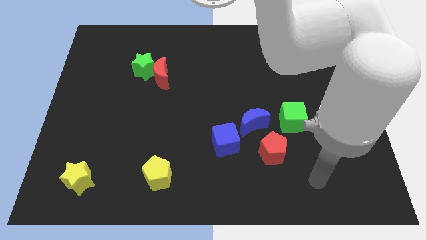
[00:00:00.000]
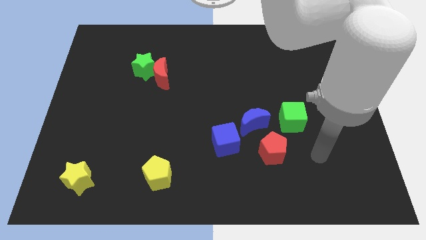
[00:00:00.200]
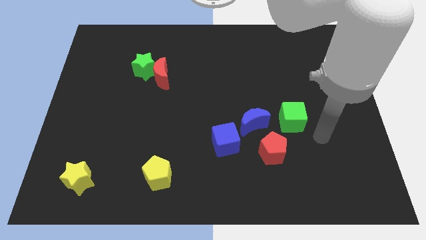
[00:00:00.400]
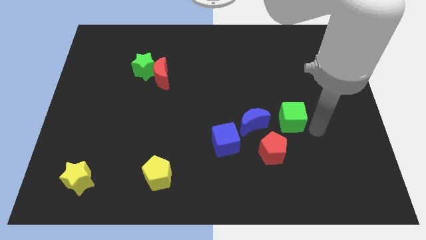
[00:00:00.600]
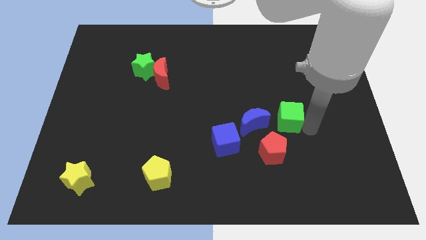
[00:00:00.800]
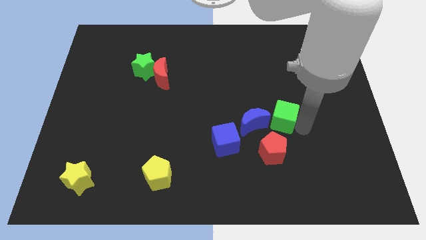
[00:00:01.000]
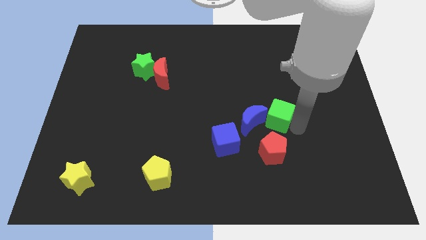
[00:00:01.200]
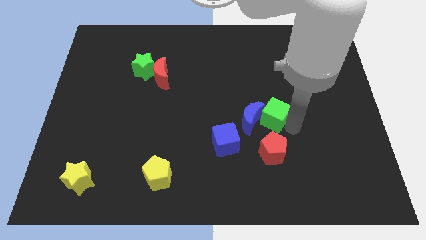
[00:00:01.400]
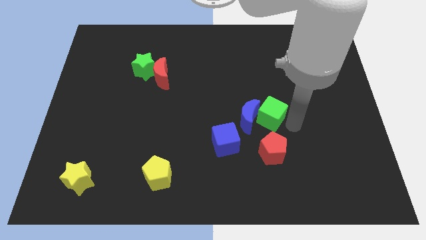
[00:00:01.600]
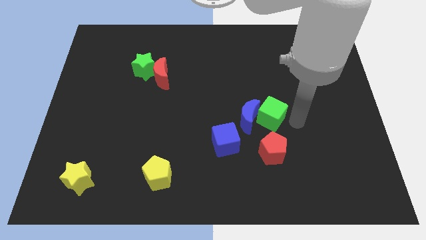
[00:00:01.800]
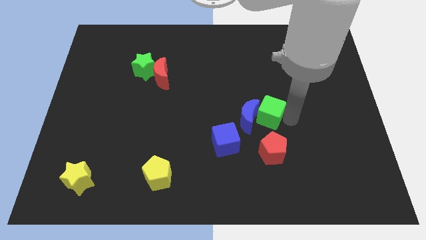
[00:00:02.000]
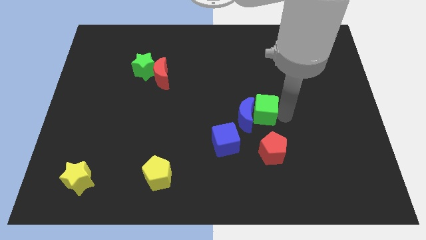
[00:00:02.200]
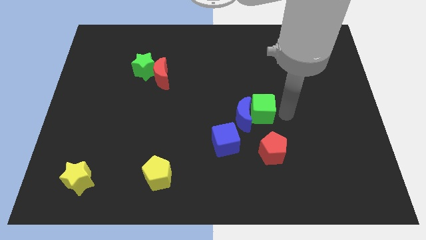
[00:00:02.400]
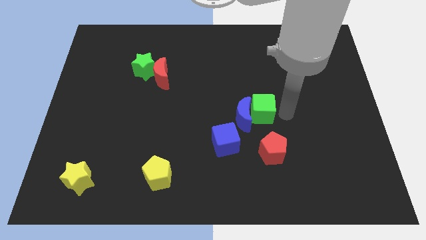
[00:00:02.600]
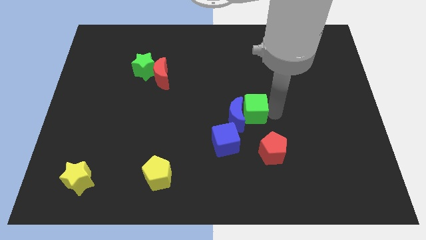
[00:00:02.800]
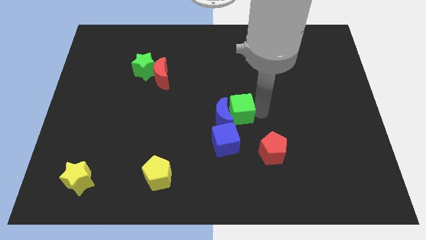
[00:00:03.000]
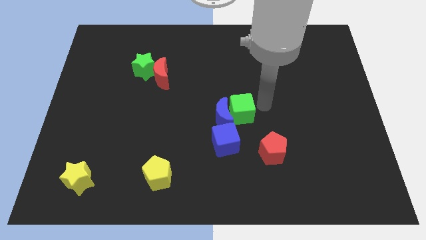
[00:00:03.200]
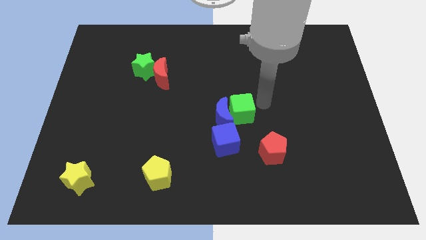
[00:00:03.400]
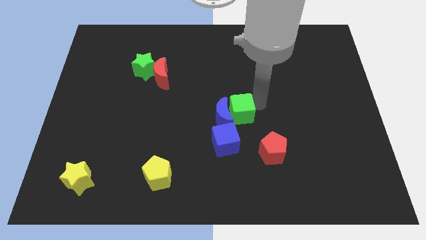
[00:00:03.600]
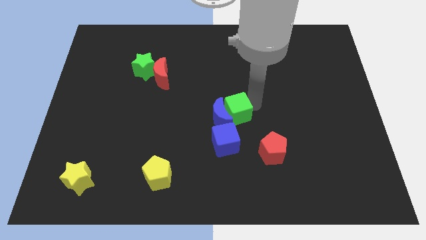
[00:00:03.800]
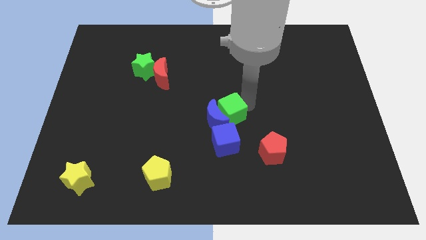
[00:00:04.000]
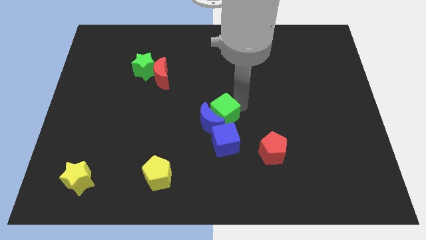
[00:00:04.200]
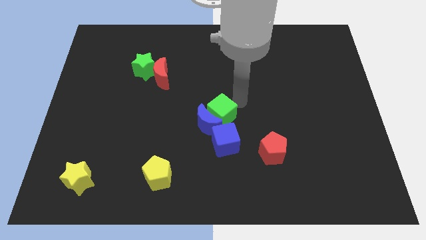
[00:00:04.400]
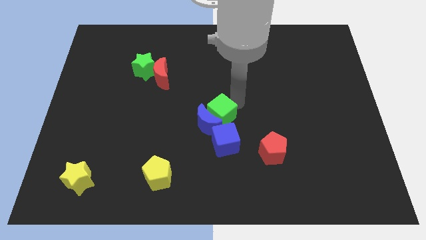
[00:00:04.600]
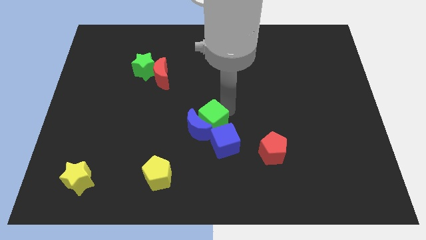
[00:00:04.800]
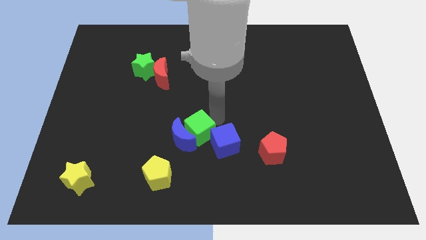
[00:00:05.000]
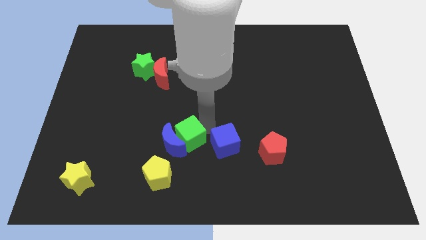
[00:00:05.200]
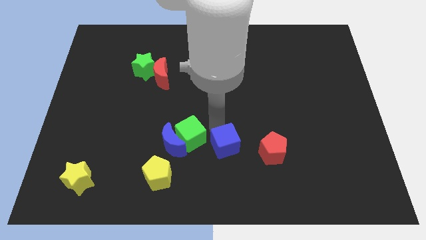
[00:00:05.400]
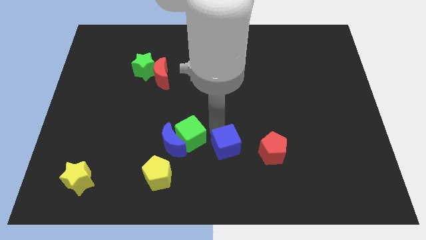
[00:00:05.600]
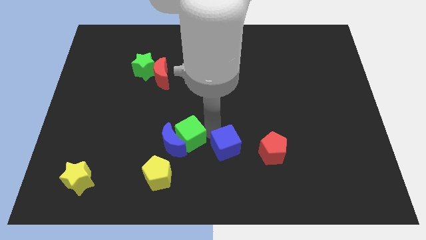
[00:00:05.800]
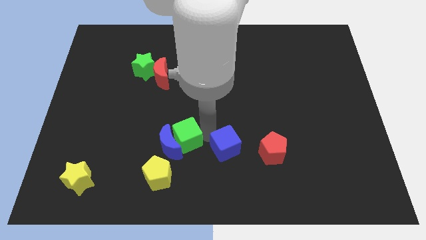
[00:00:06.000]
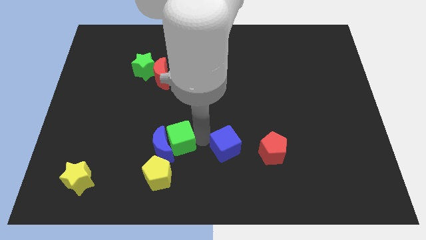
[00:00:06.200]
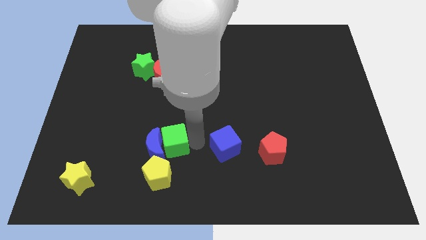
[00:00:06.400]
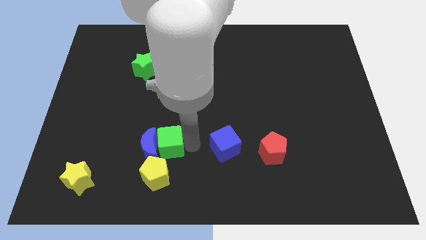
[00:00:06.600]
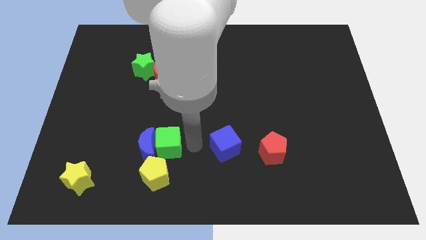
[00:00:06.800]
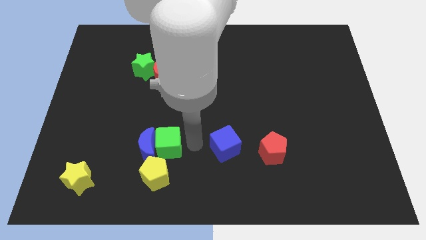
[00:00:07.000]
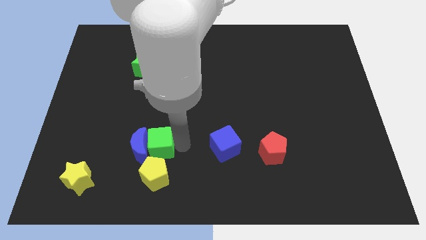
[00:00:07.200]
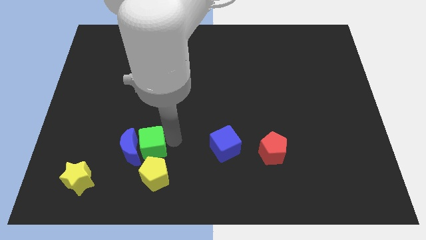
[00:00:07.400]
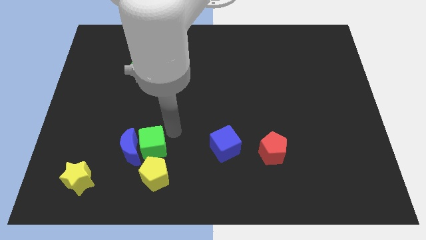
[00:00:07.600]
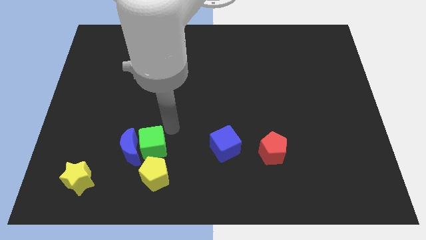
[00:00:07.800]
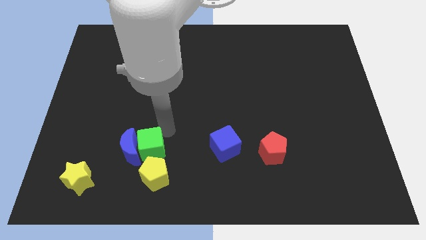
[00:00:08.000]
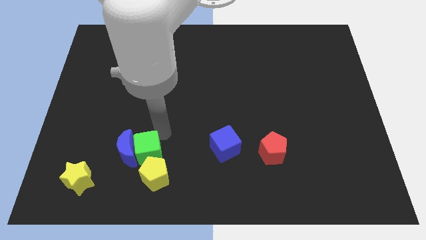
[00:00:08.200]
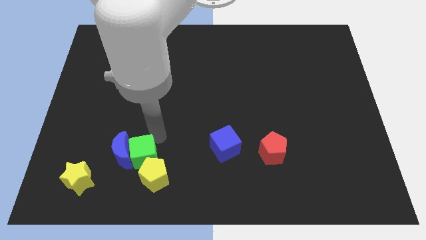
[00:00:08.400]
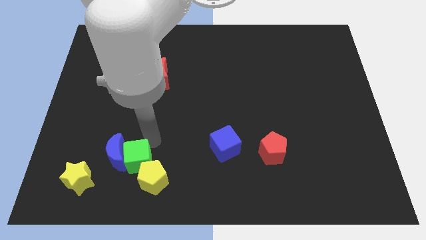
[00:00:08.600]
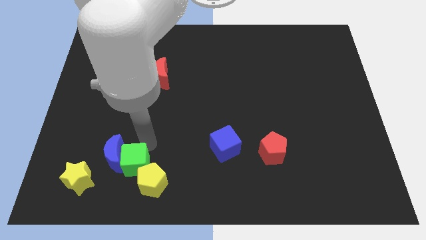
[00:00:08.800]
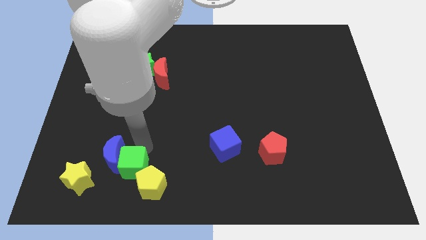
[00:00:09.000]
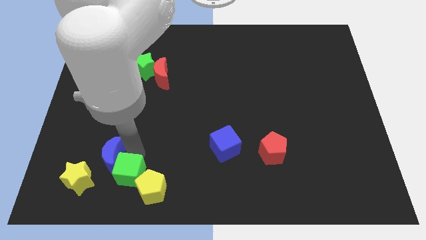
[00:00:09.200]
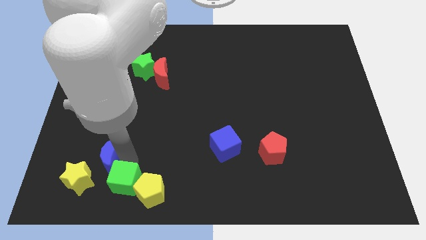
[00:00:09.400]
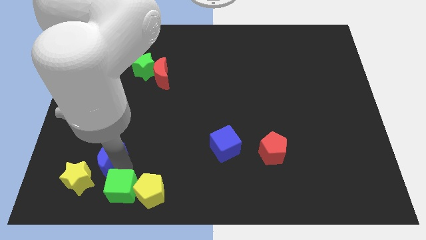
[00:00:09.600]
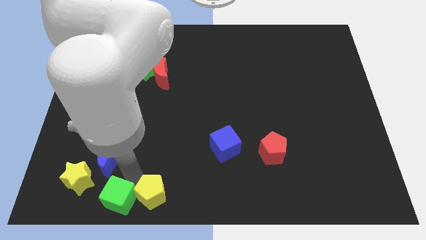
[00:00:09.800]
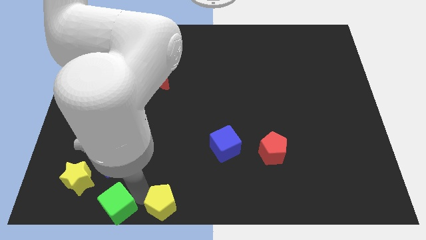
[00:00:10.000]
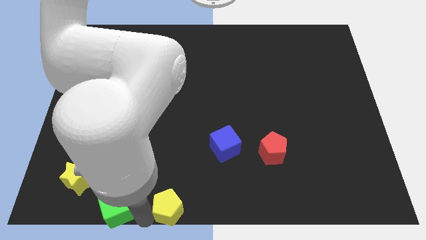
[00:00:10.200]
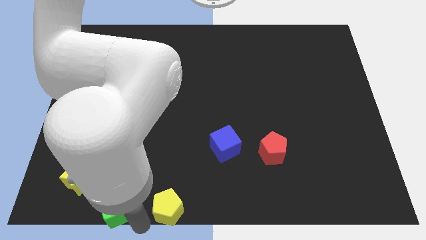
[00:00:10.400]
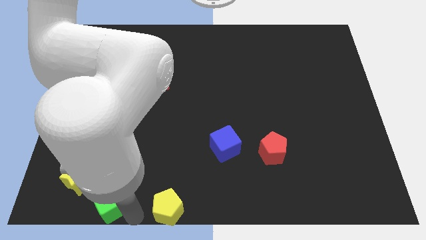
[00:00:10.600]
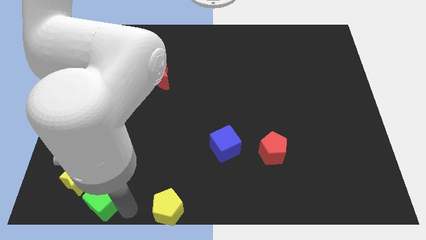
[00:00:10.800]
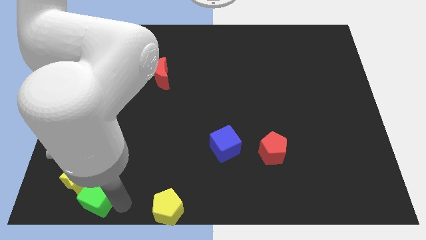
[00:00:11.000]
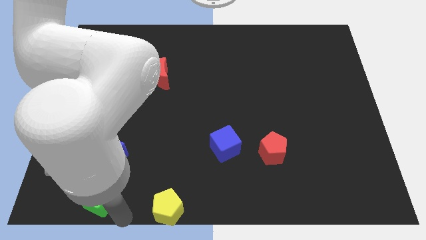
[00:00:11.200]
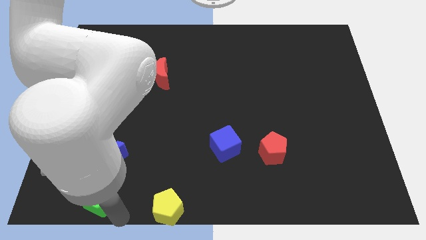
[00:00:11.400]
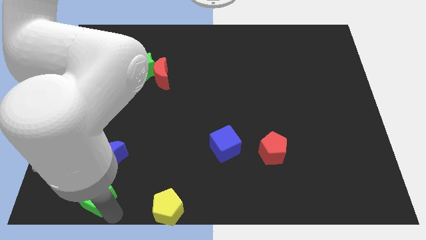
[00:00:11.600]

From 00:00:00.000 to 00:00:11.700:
push the green cube next to the yellow star
